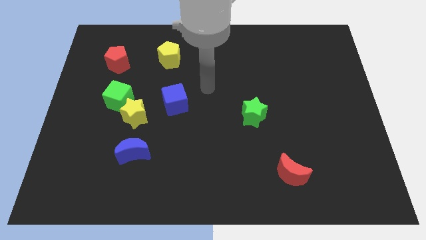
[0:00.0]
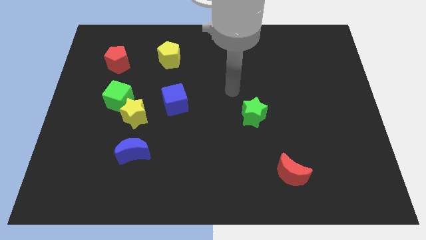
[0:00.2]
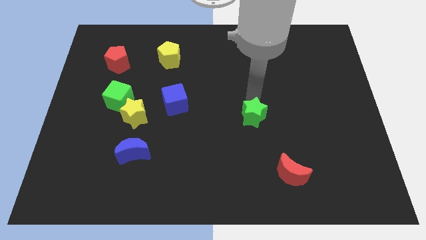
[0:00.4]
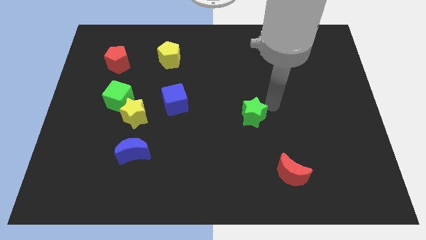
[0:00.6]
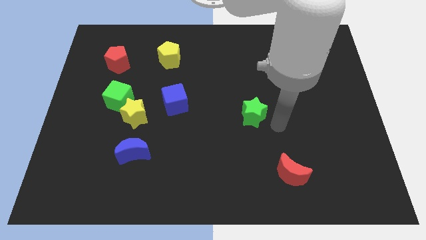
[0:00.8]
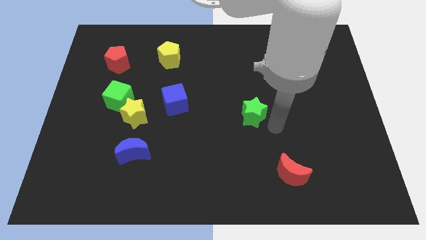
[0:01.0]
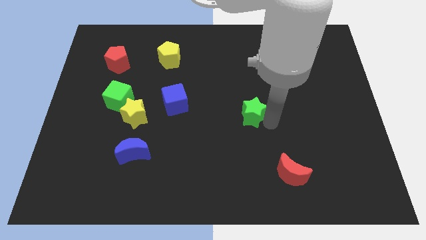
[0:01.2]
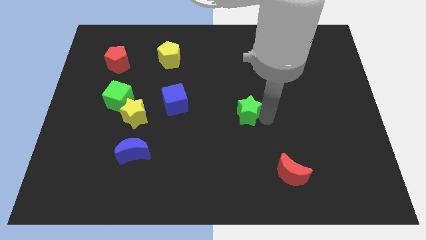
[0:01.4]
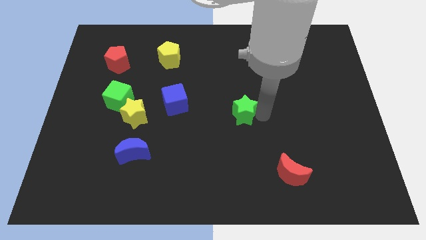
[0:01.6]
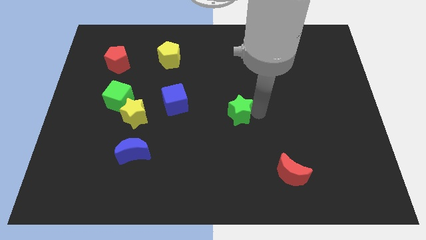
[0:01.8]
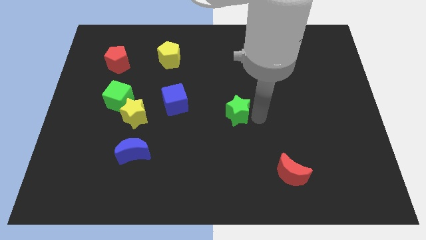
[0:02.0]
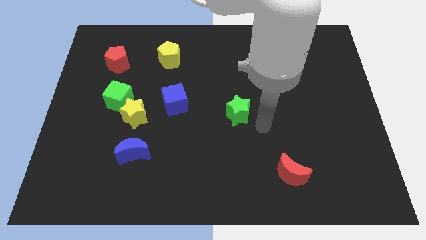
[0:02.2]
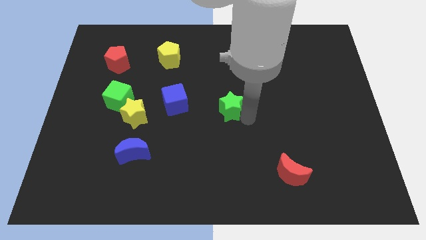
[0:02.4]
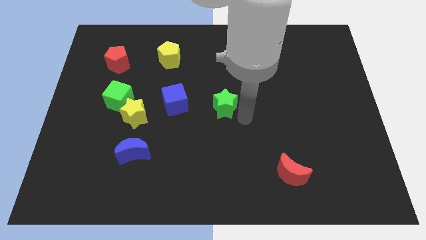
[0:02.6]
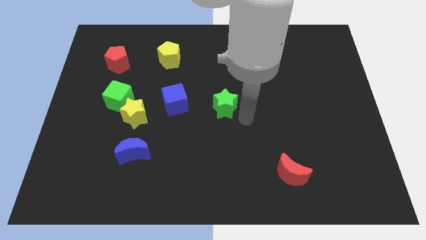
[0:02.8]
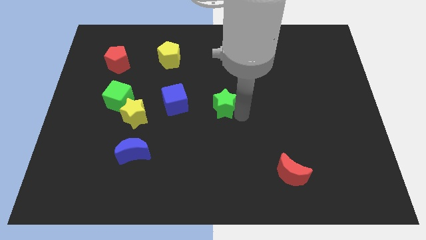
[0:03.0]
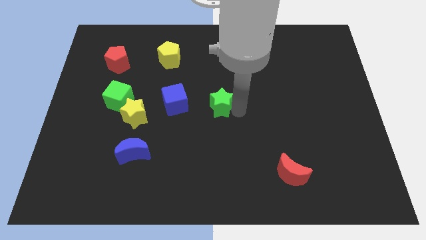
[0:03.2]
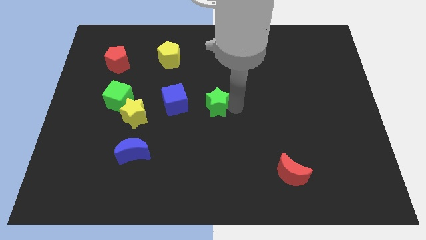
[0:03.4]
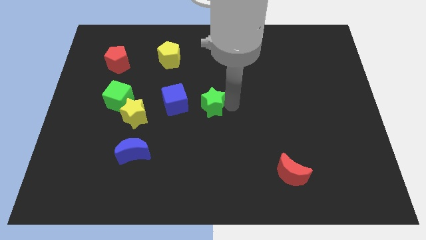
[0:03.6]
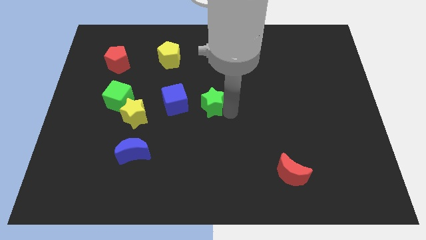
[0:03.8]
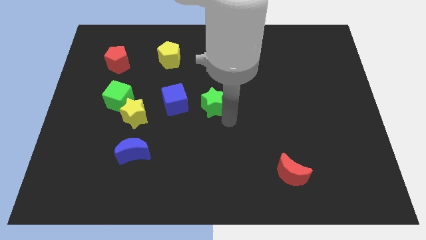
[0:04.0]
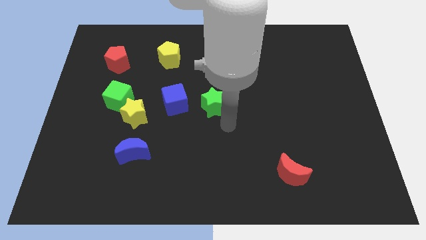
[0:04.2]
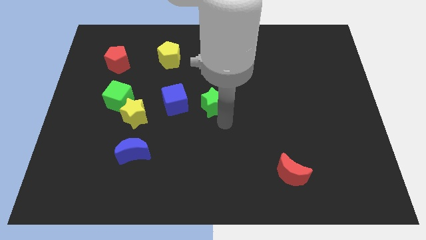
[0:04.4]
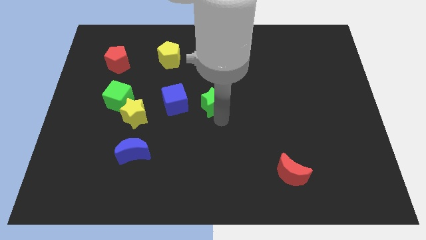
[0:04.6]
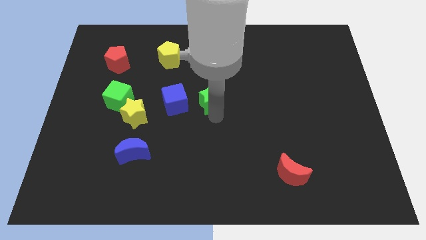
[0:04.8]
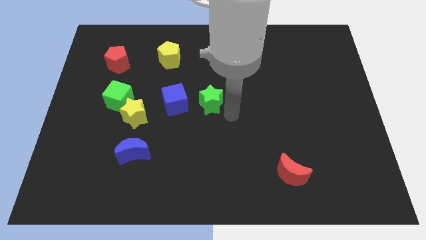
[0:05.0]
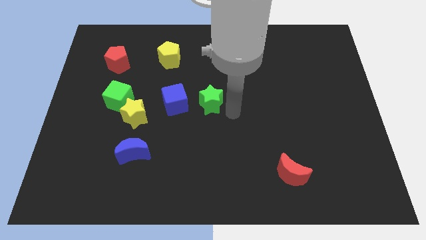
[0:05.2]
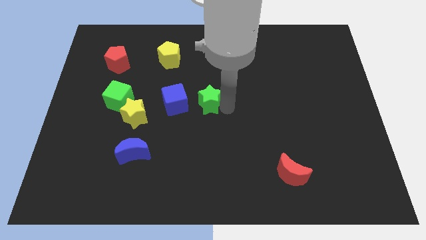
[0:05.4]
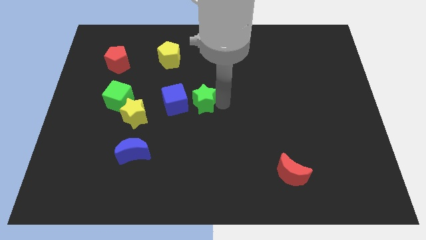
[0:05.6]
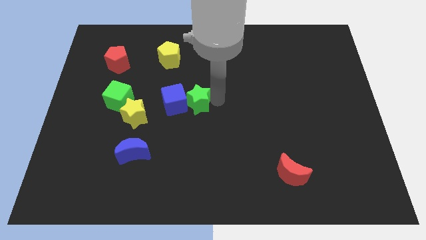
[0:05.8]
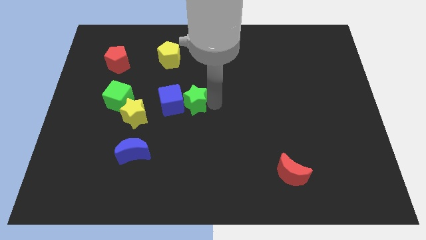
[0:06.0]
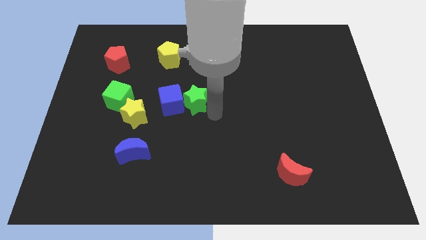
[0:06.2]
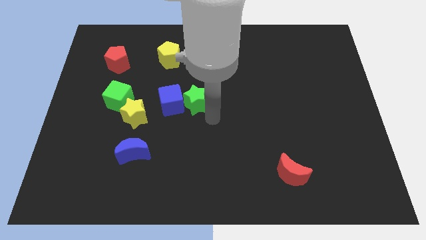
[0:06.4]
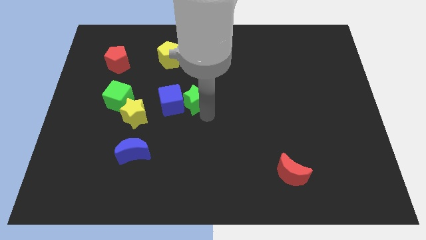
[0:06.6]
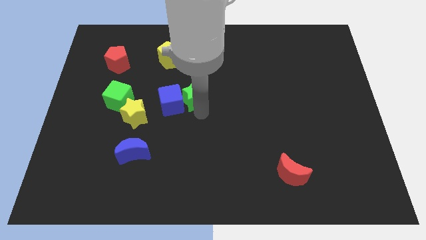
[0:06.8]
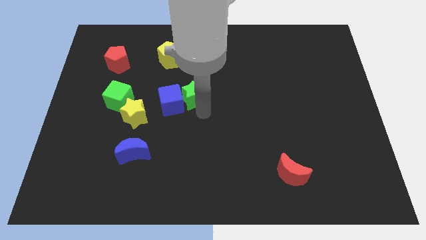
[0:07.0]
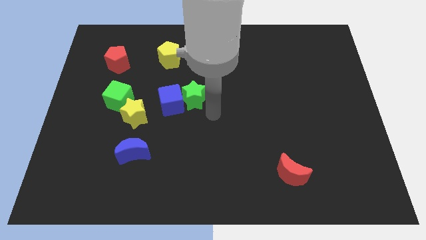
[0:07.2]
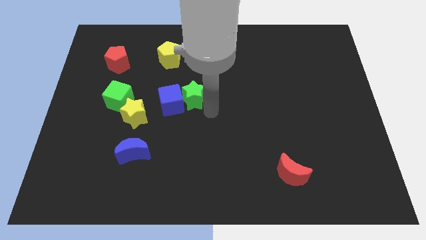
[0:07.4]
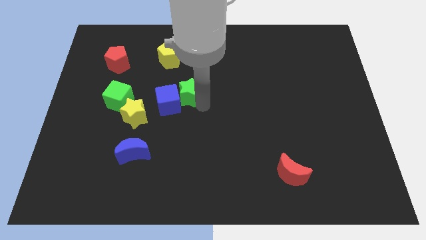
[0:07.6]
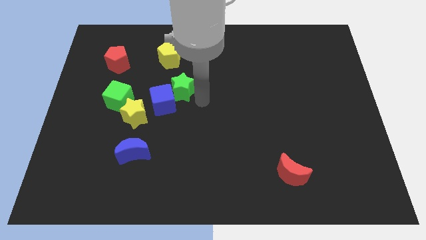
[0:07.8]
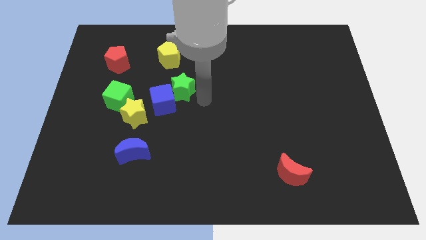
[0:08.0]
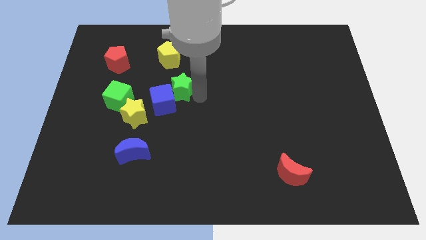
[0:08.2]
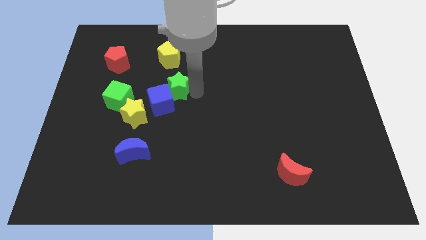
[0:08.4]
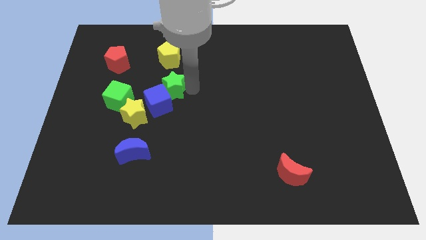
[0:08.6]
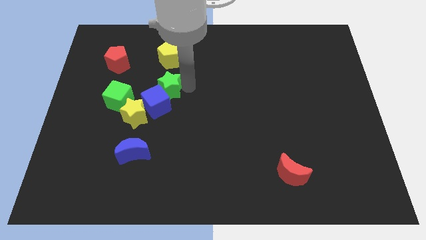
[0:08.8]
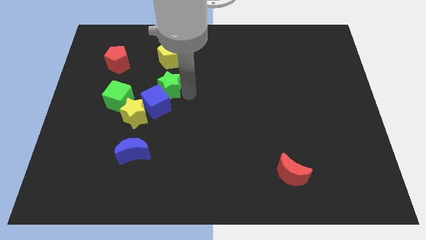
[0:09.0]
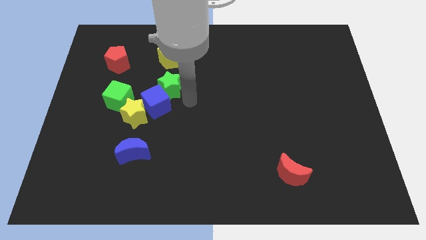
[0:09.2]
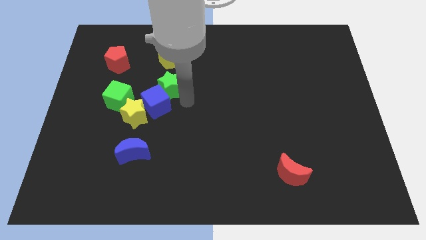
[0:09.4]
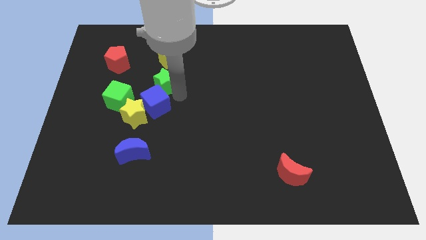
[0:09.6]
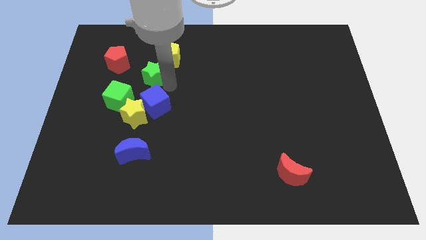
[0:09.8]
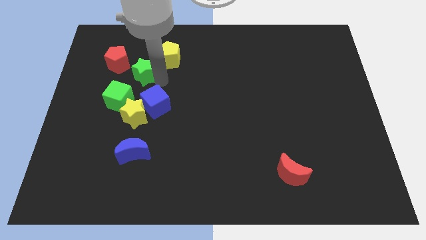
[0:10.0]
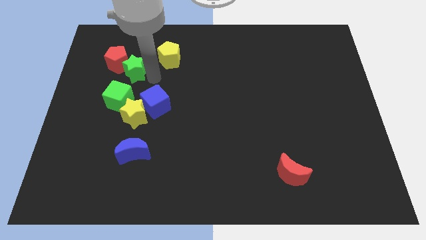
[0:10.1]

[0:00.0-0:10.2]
move the green star close to the red pentagon

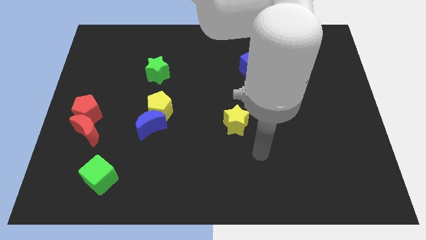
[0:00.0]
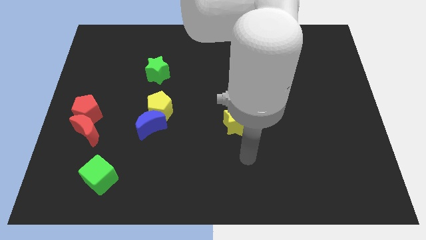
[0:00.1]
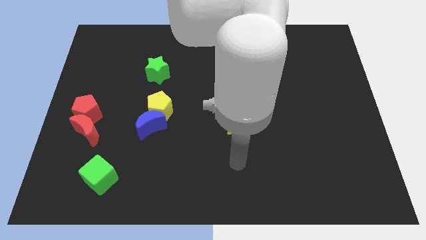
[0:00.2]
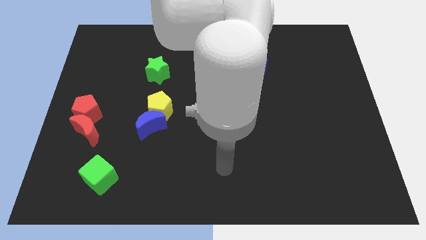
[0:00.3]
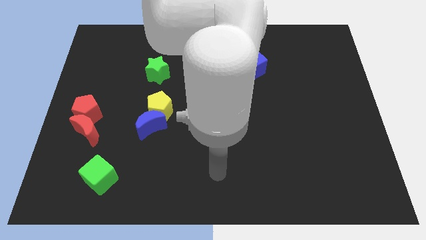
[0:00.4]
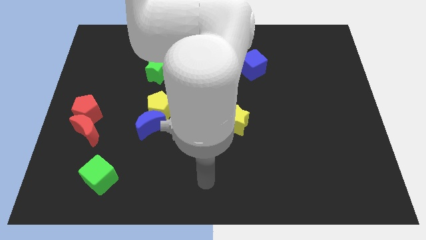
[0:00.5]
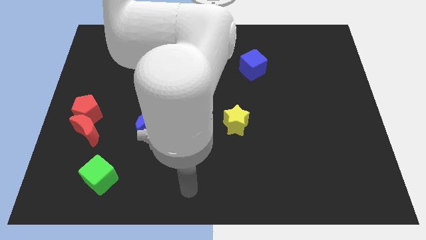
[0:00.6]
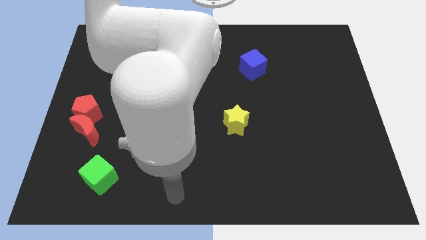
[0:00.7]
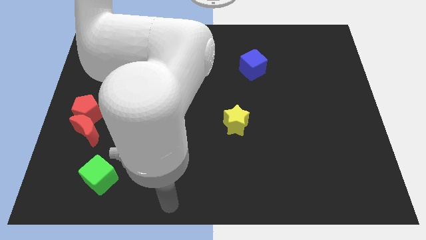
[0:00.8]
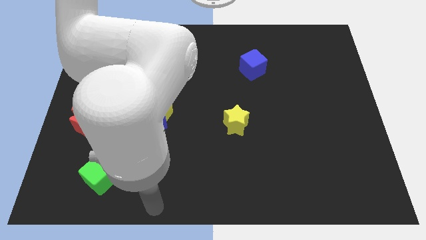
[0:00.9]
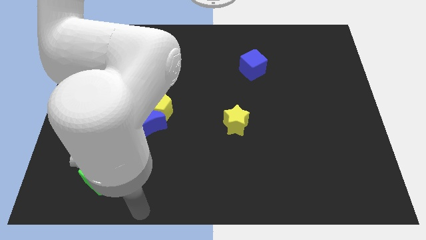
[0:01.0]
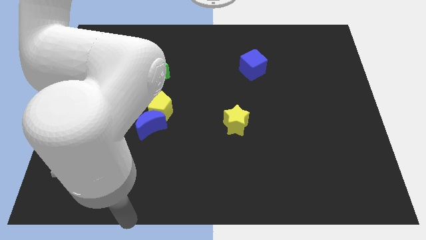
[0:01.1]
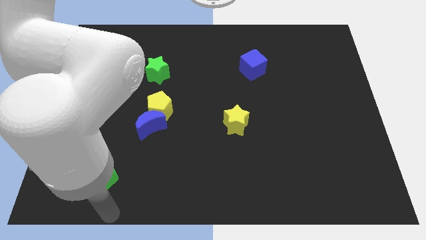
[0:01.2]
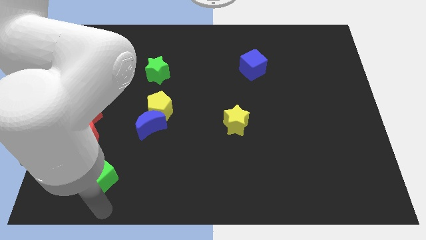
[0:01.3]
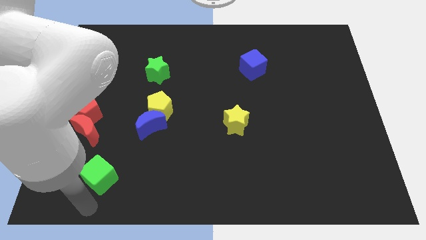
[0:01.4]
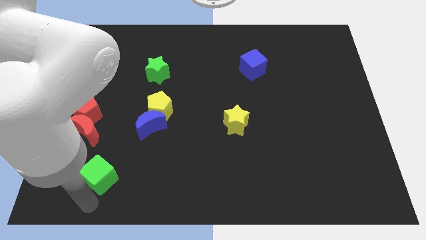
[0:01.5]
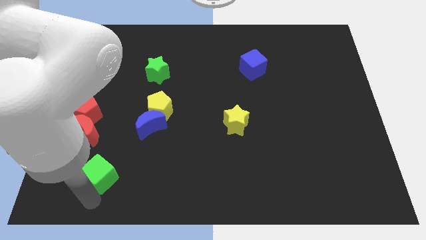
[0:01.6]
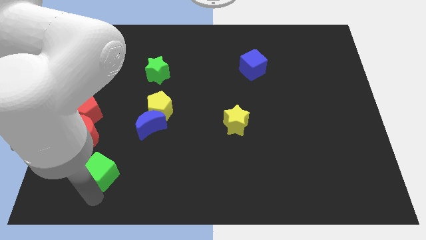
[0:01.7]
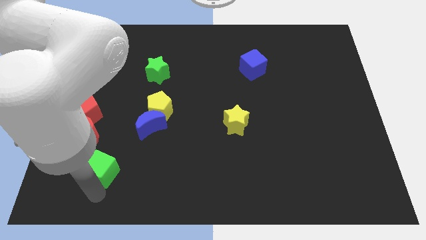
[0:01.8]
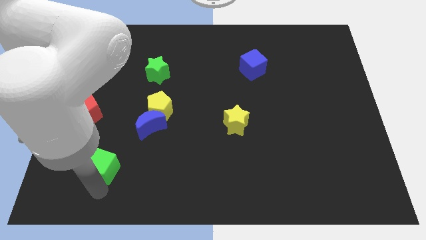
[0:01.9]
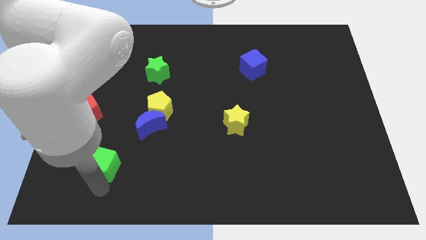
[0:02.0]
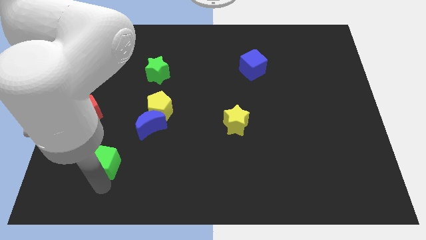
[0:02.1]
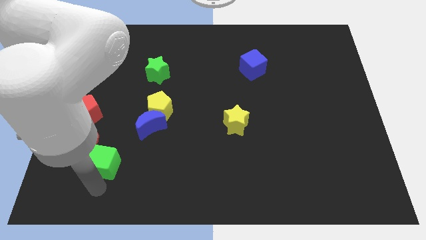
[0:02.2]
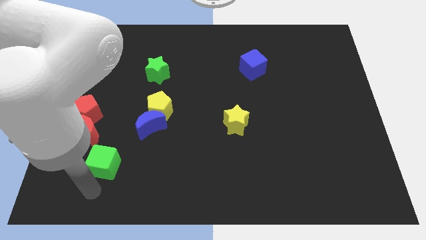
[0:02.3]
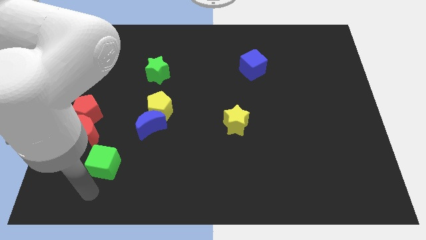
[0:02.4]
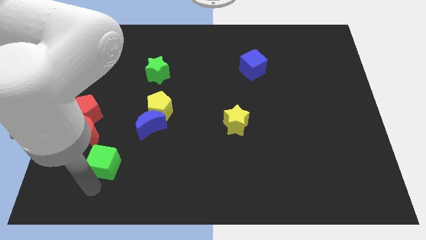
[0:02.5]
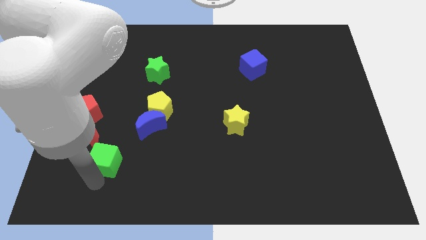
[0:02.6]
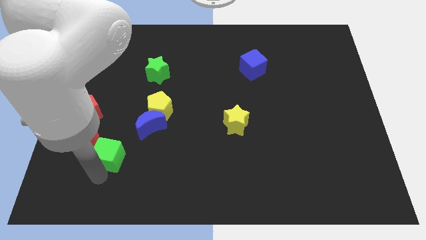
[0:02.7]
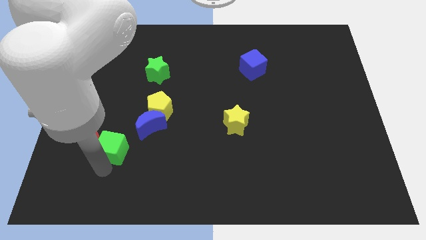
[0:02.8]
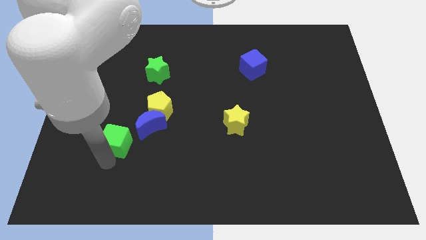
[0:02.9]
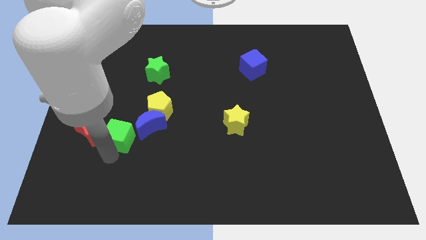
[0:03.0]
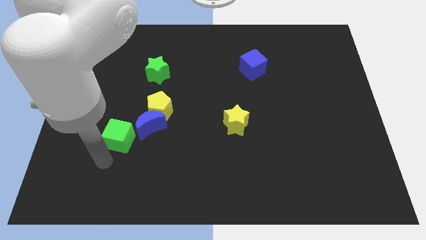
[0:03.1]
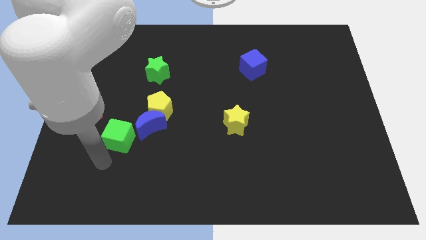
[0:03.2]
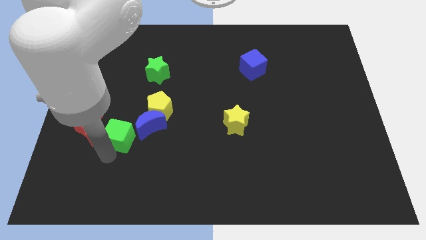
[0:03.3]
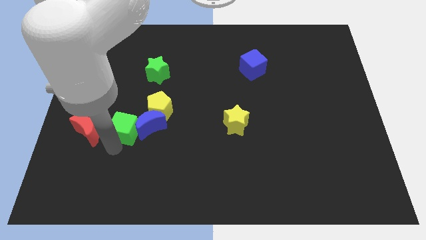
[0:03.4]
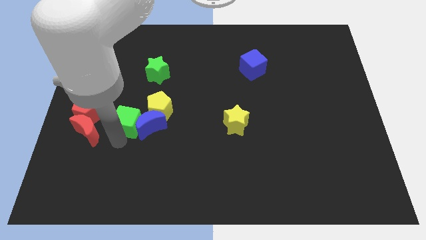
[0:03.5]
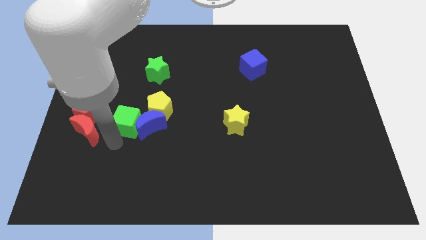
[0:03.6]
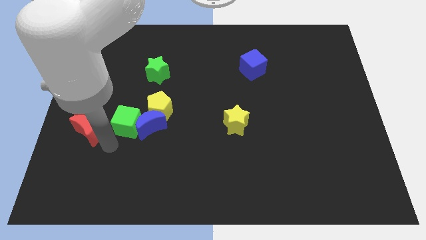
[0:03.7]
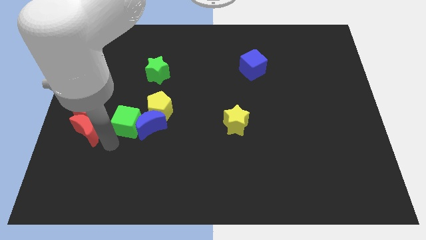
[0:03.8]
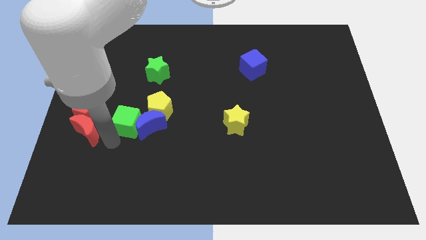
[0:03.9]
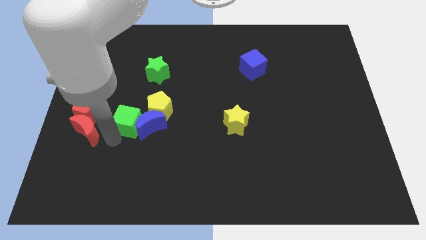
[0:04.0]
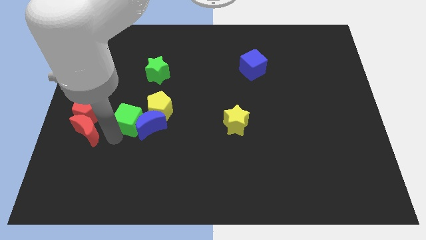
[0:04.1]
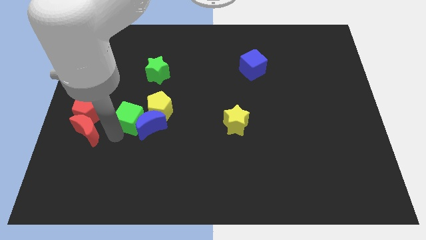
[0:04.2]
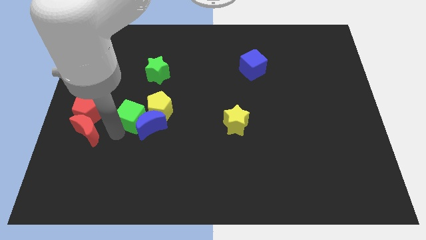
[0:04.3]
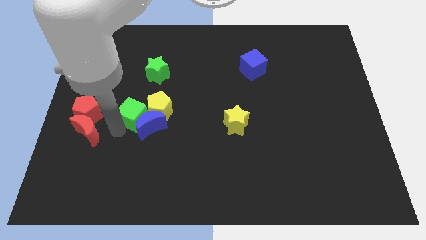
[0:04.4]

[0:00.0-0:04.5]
put the green cube next to the yellow pentagon
